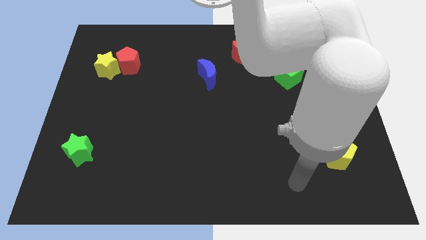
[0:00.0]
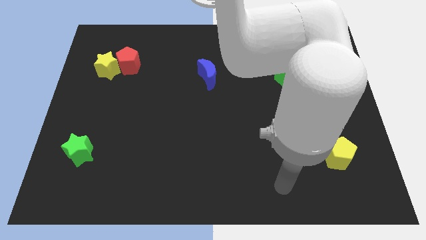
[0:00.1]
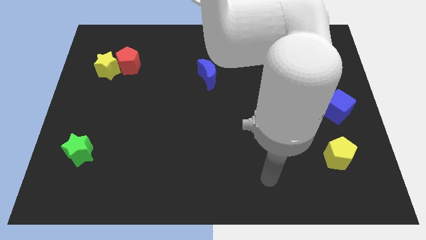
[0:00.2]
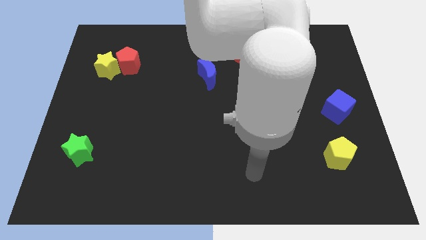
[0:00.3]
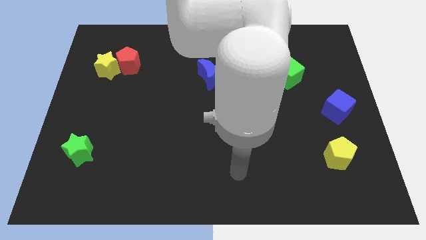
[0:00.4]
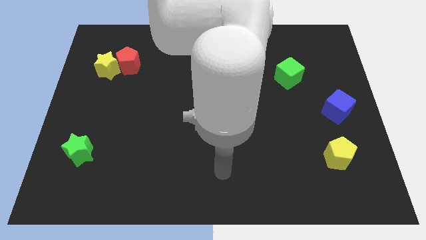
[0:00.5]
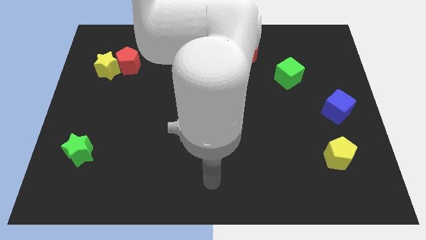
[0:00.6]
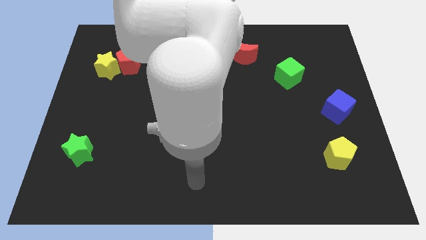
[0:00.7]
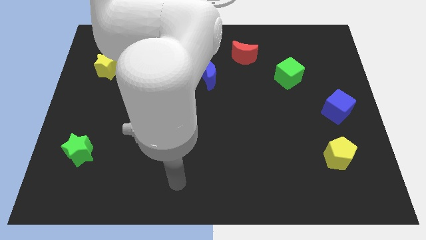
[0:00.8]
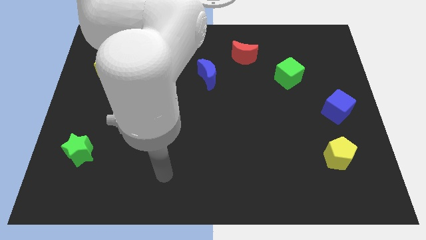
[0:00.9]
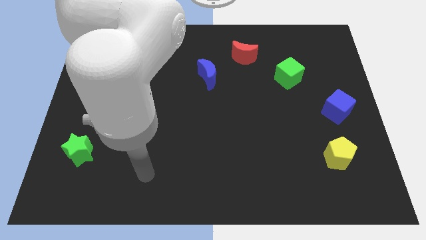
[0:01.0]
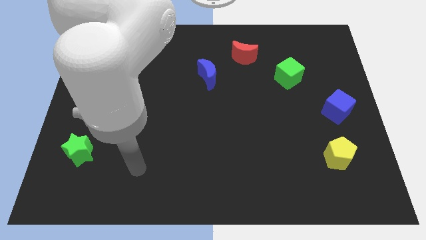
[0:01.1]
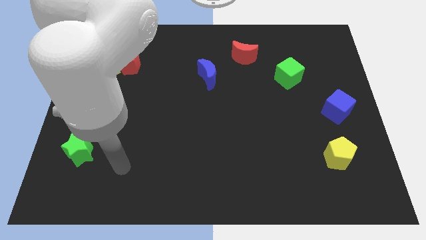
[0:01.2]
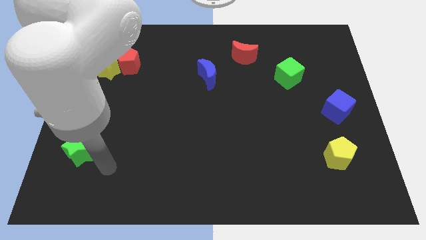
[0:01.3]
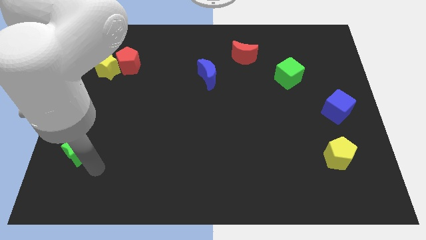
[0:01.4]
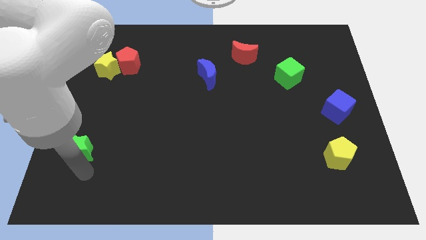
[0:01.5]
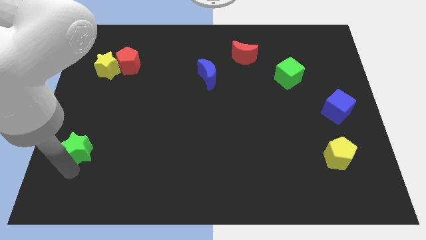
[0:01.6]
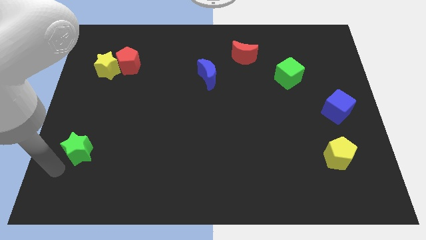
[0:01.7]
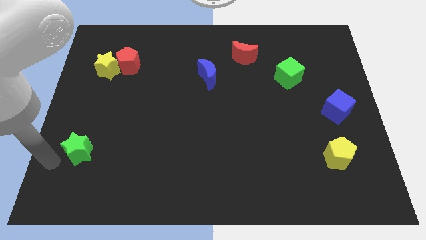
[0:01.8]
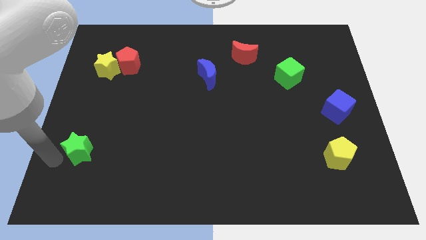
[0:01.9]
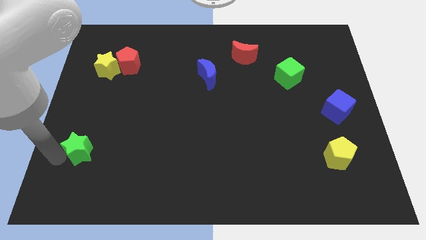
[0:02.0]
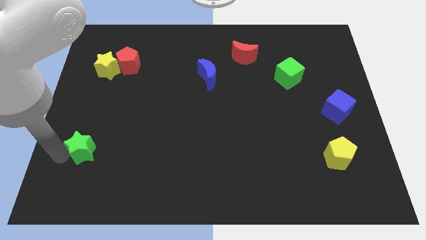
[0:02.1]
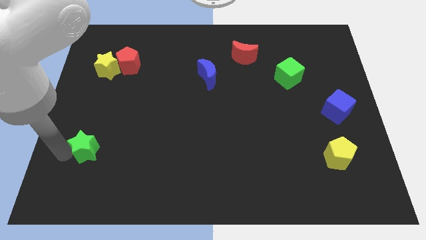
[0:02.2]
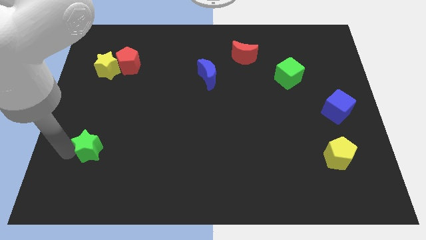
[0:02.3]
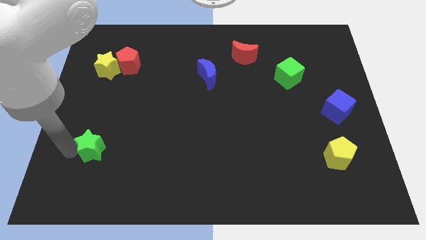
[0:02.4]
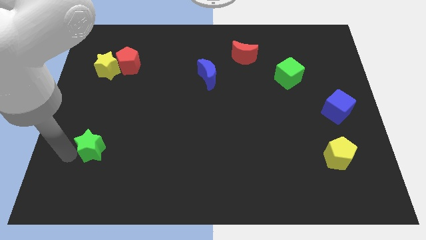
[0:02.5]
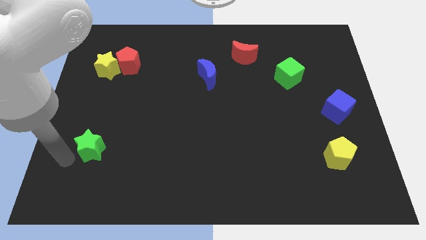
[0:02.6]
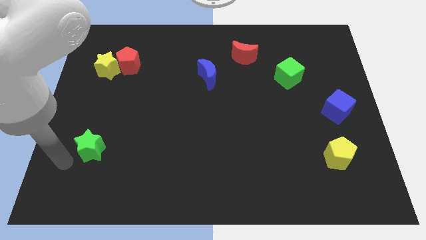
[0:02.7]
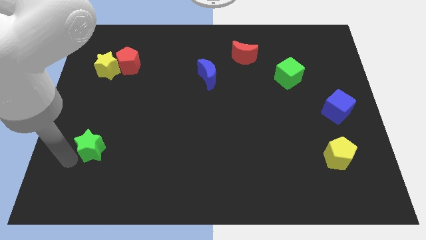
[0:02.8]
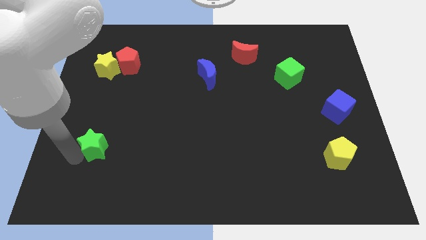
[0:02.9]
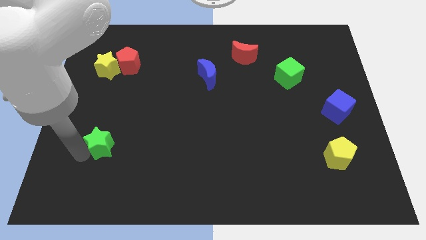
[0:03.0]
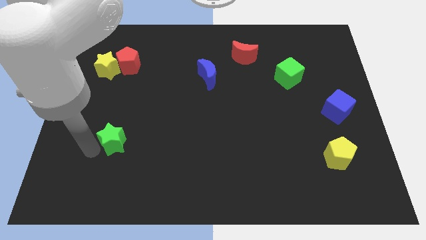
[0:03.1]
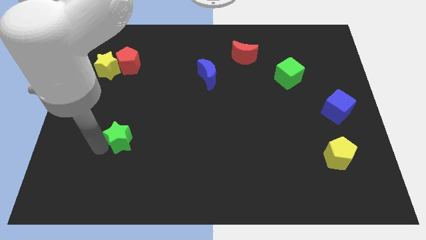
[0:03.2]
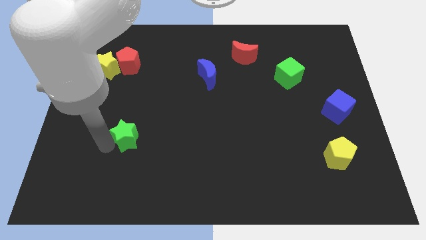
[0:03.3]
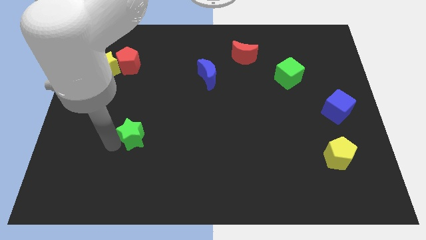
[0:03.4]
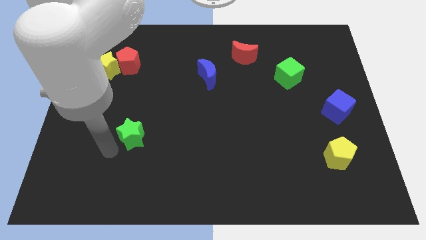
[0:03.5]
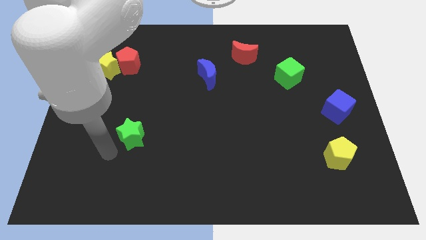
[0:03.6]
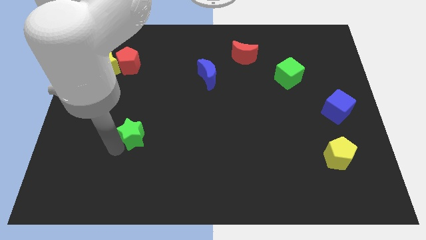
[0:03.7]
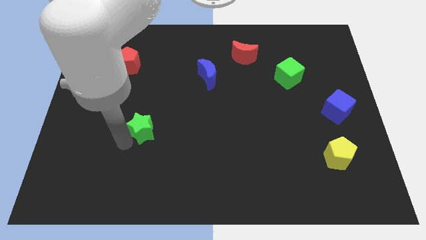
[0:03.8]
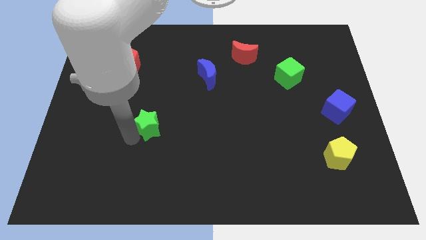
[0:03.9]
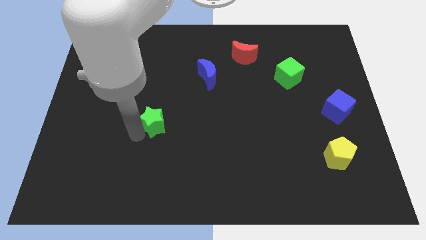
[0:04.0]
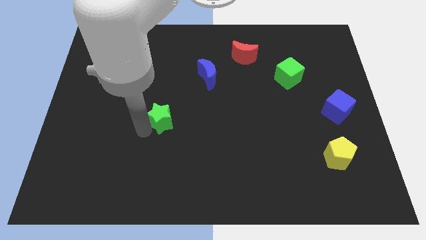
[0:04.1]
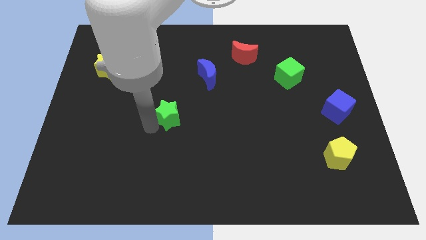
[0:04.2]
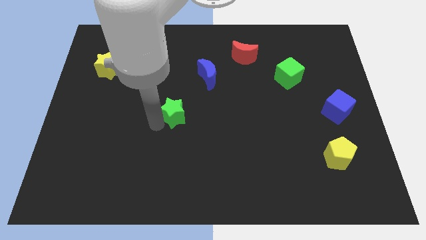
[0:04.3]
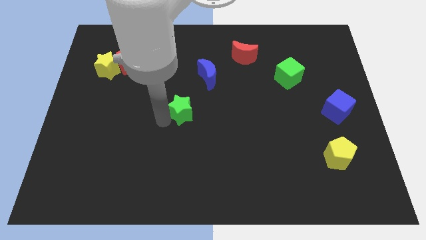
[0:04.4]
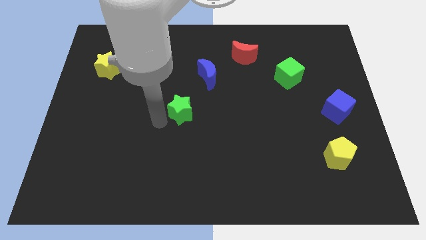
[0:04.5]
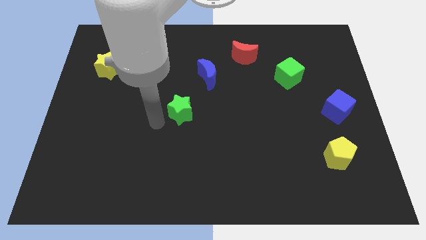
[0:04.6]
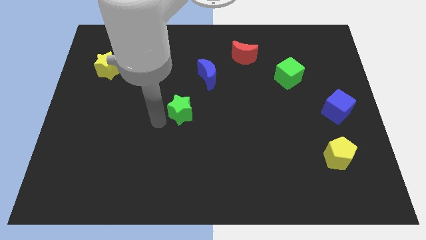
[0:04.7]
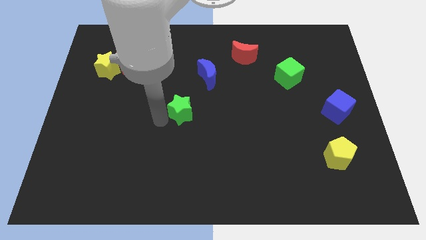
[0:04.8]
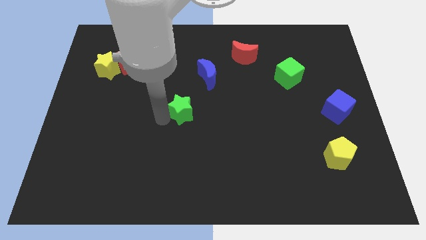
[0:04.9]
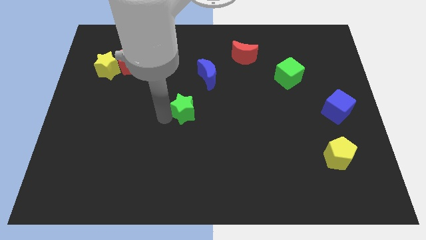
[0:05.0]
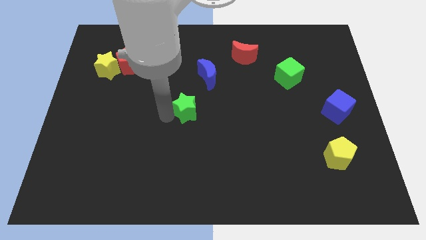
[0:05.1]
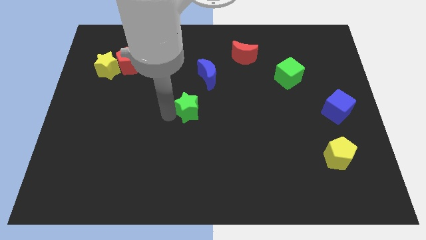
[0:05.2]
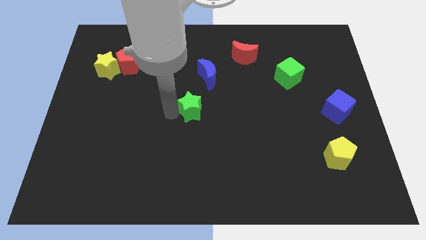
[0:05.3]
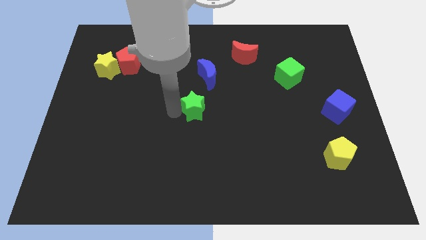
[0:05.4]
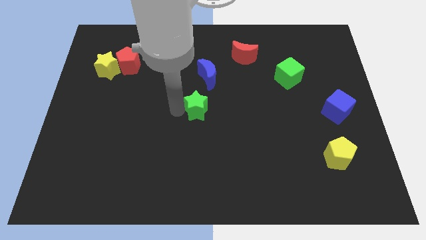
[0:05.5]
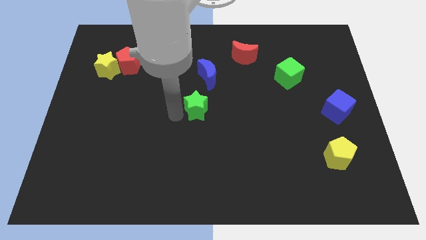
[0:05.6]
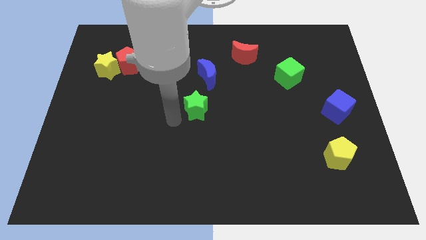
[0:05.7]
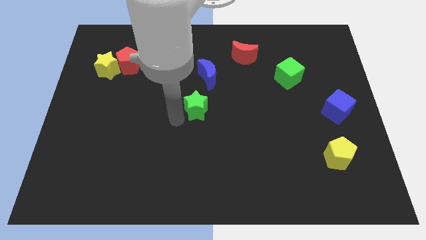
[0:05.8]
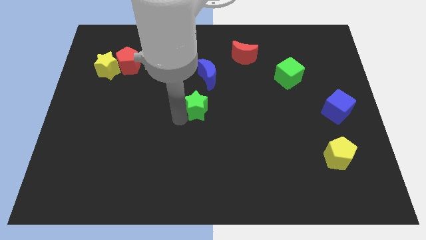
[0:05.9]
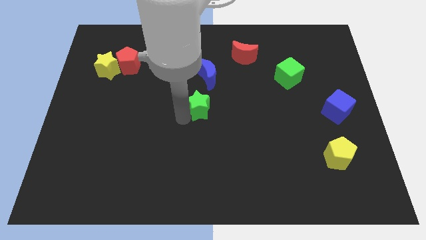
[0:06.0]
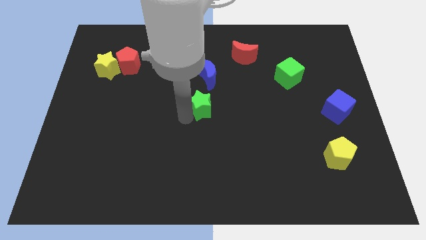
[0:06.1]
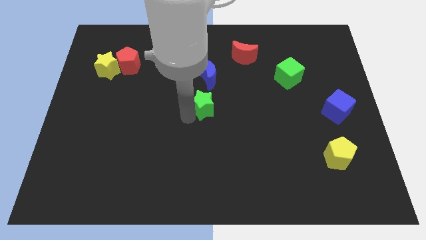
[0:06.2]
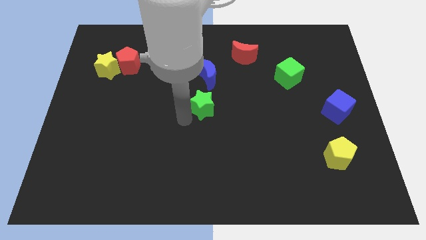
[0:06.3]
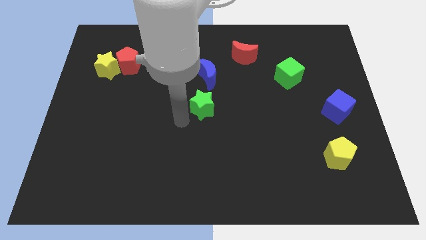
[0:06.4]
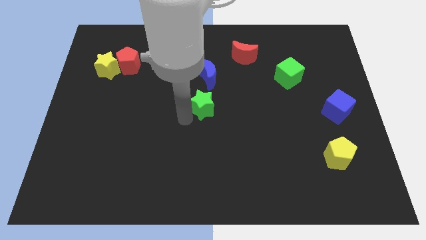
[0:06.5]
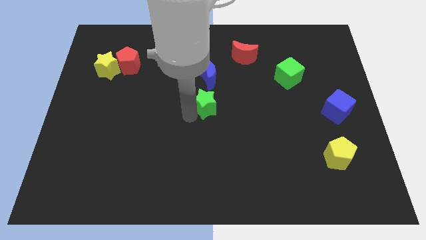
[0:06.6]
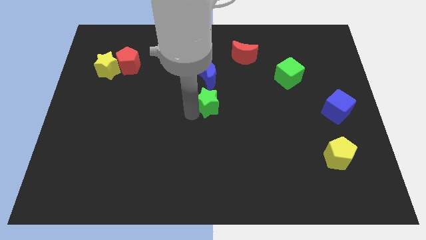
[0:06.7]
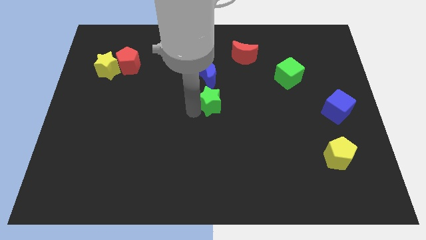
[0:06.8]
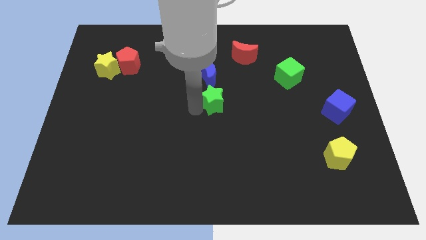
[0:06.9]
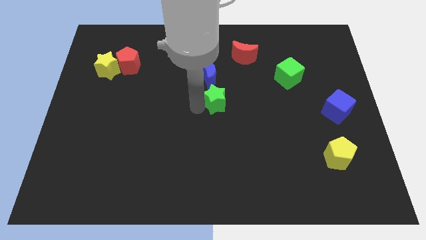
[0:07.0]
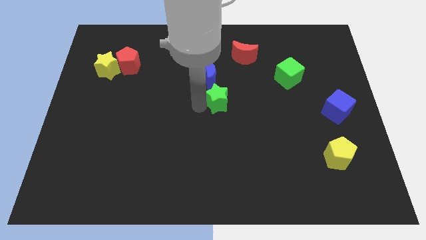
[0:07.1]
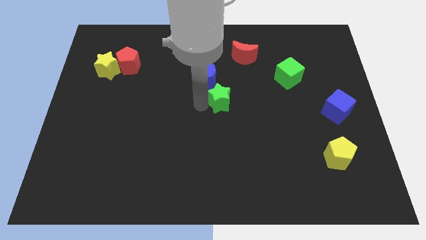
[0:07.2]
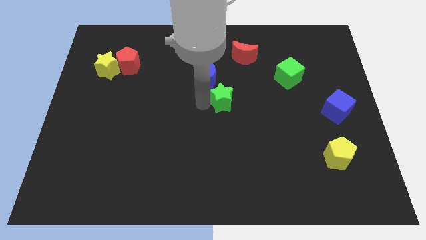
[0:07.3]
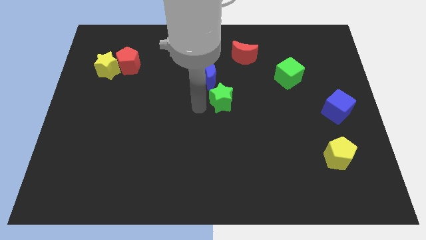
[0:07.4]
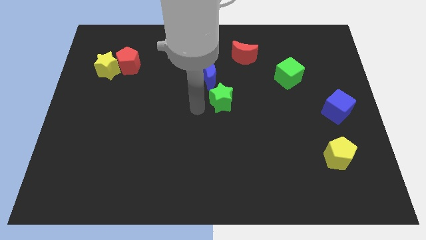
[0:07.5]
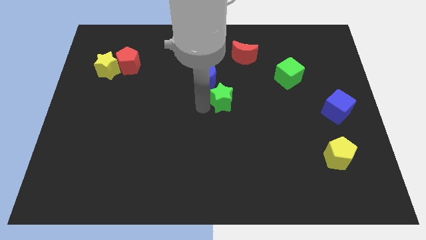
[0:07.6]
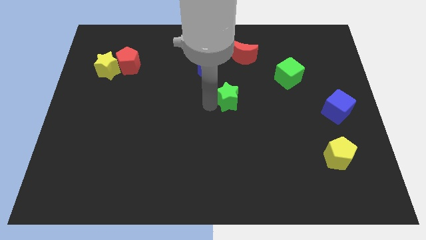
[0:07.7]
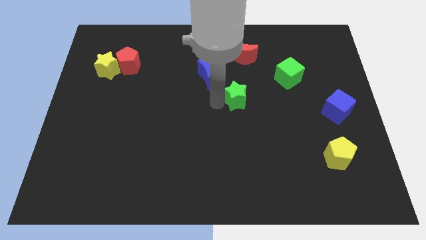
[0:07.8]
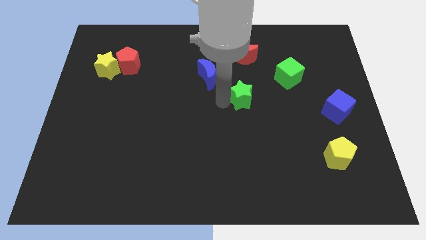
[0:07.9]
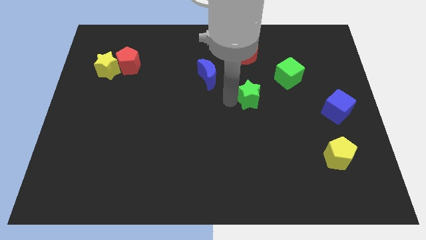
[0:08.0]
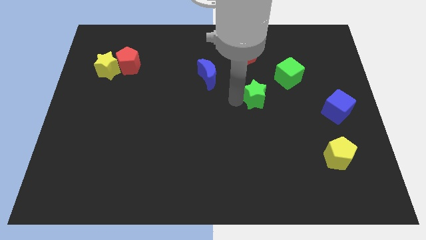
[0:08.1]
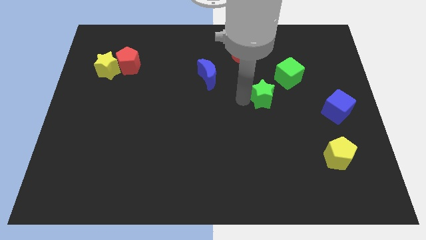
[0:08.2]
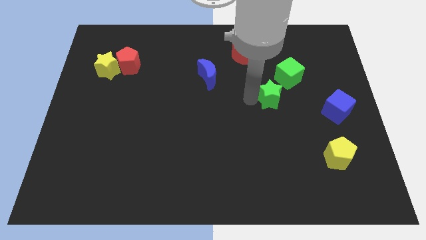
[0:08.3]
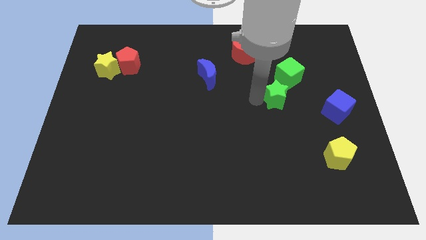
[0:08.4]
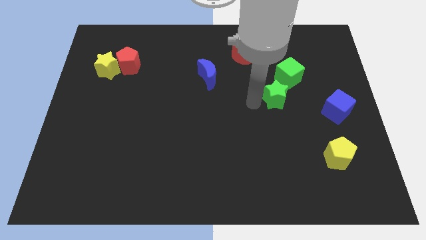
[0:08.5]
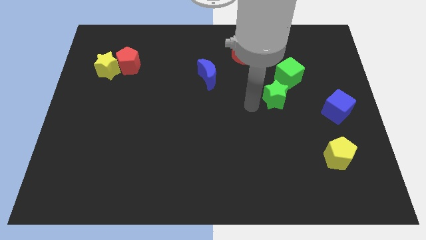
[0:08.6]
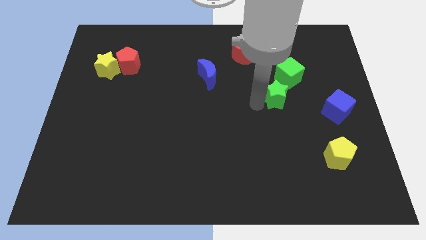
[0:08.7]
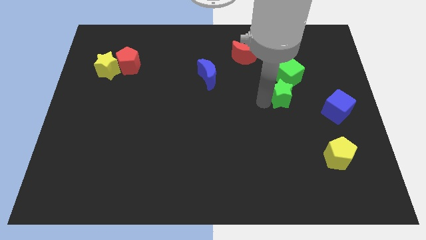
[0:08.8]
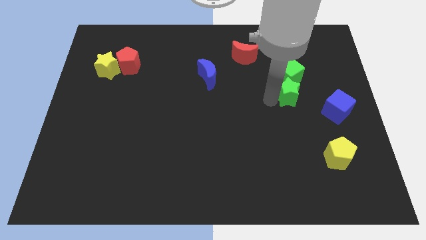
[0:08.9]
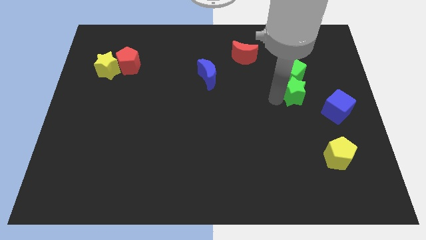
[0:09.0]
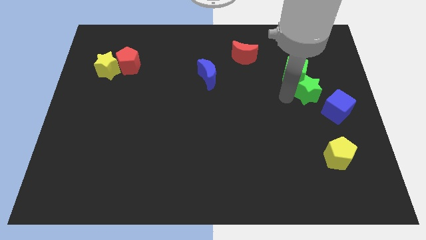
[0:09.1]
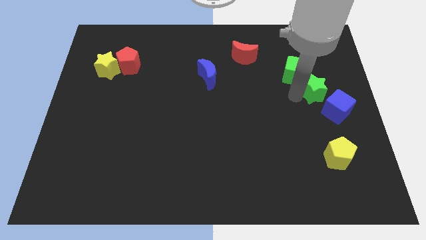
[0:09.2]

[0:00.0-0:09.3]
slide the green star to the top side of the blue cube
